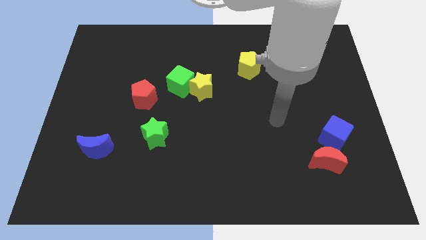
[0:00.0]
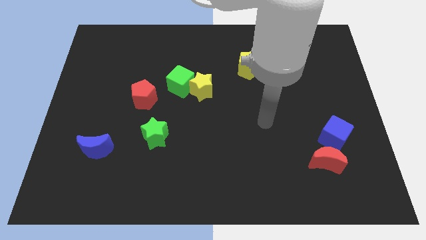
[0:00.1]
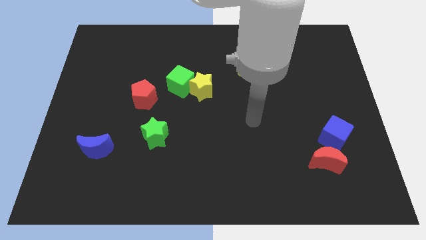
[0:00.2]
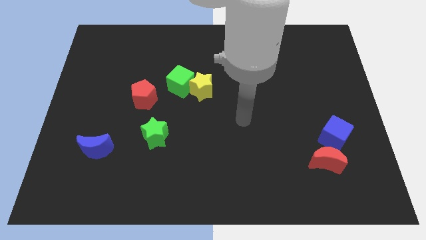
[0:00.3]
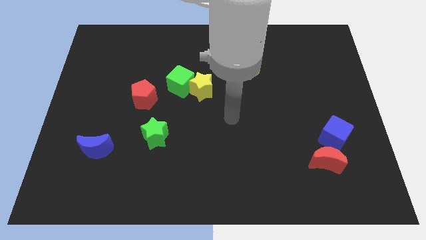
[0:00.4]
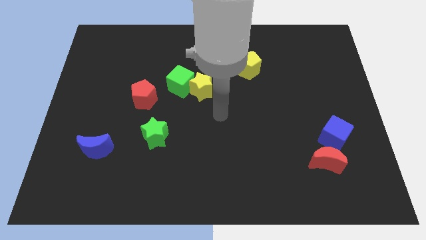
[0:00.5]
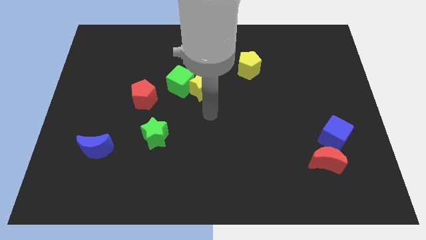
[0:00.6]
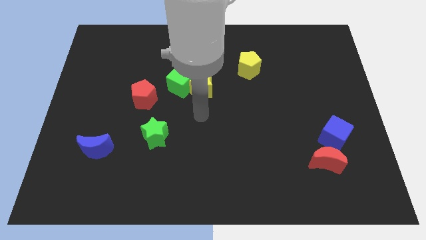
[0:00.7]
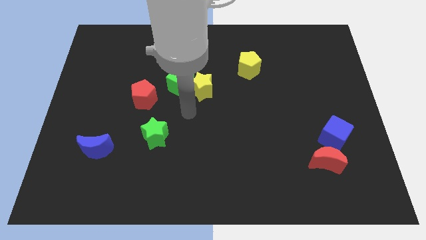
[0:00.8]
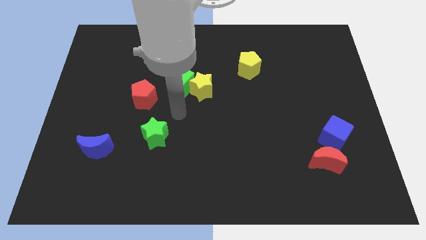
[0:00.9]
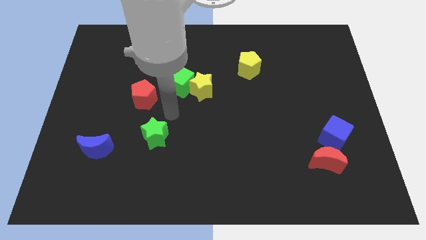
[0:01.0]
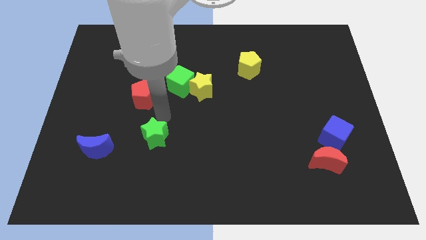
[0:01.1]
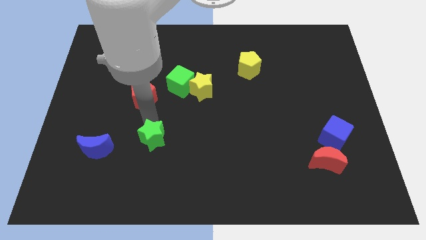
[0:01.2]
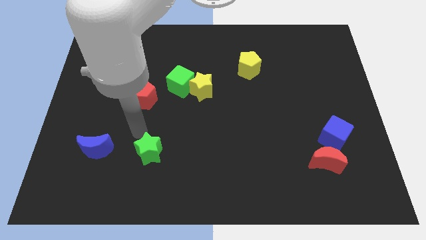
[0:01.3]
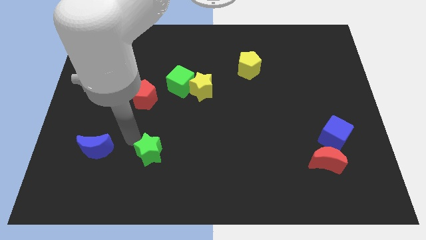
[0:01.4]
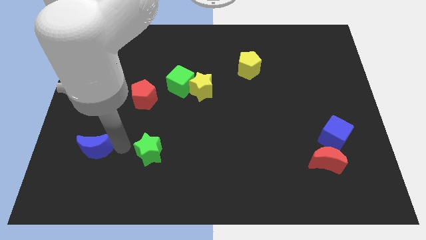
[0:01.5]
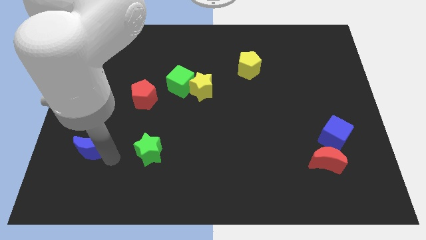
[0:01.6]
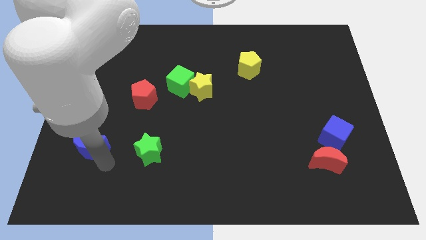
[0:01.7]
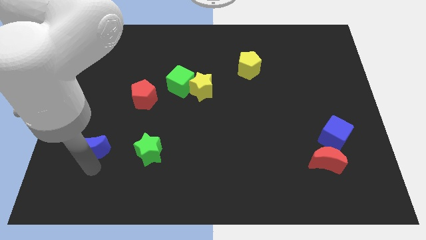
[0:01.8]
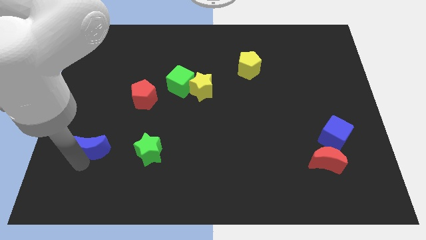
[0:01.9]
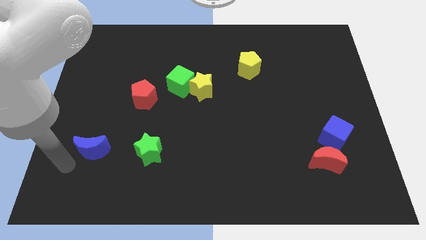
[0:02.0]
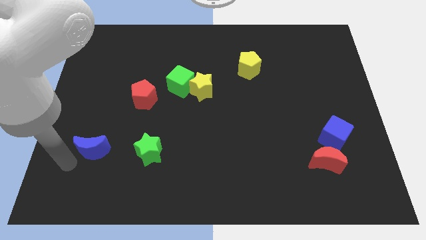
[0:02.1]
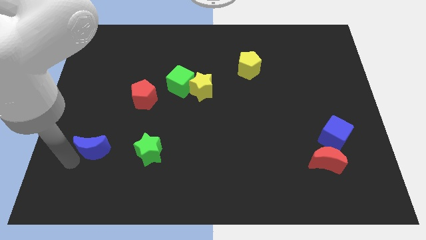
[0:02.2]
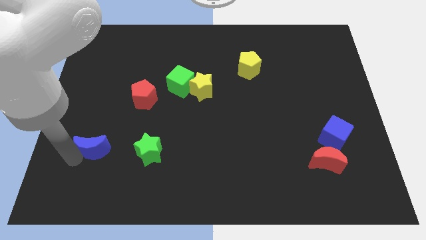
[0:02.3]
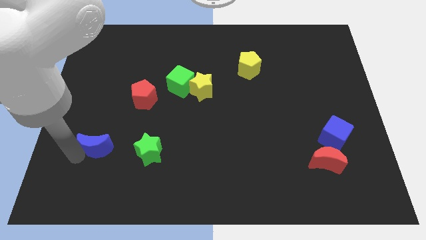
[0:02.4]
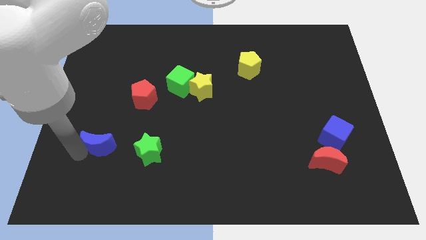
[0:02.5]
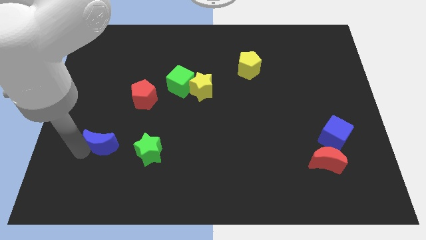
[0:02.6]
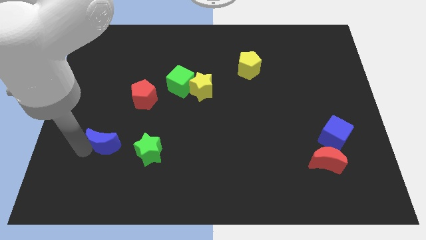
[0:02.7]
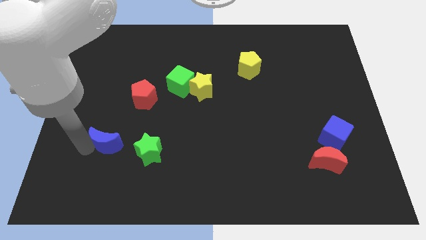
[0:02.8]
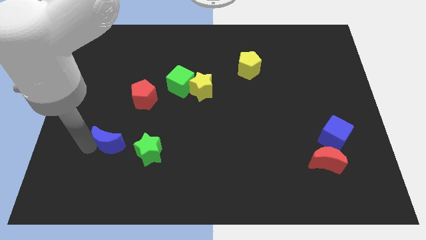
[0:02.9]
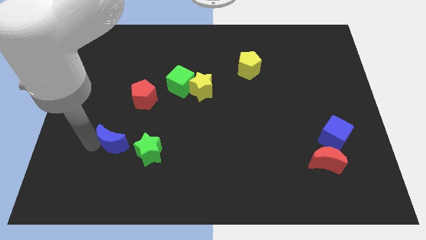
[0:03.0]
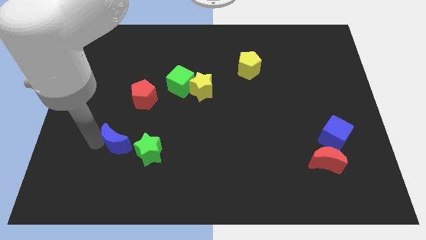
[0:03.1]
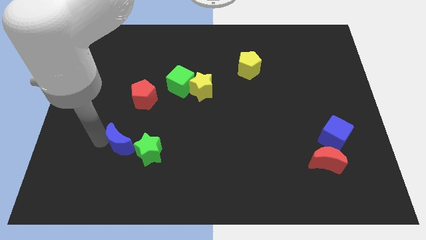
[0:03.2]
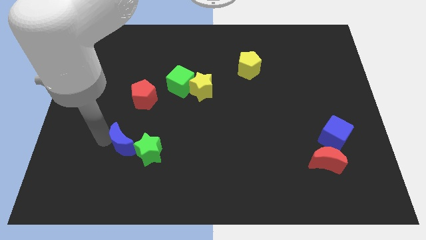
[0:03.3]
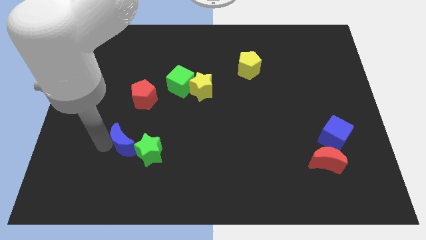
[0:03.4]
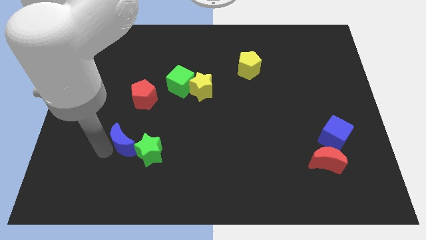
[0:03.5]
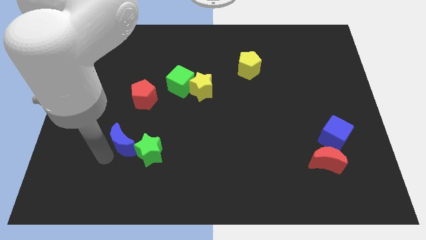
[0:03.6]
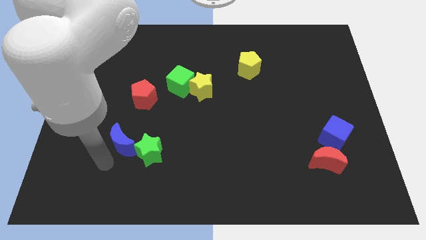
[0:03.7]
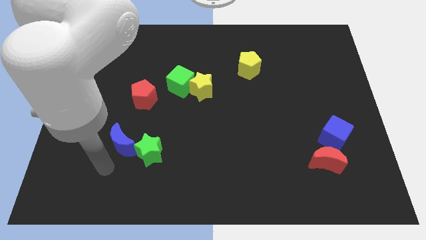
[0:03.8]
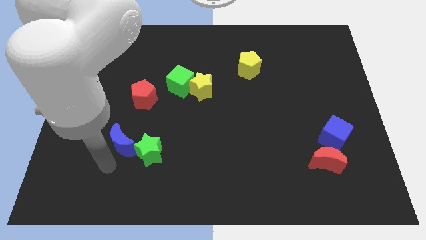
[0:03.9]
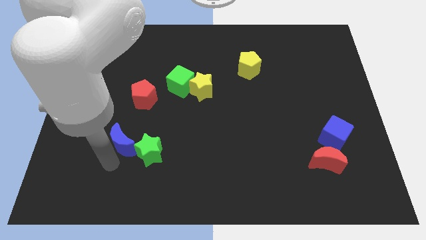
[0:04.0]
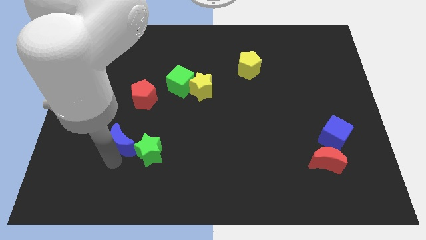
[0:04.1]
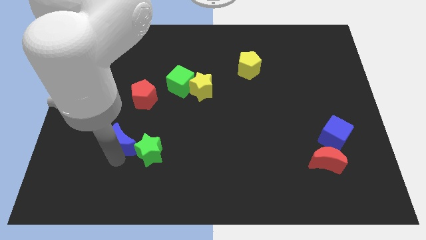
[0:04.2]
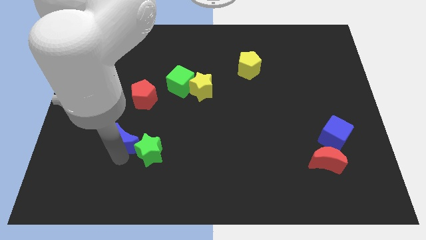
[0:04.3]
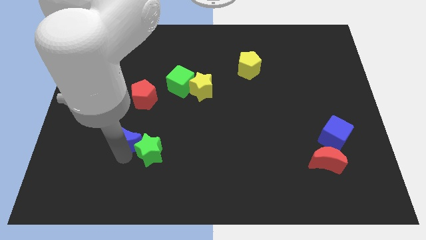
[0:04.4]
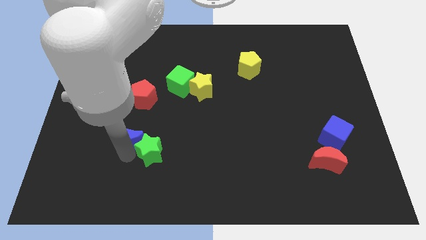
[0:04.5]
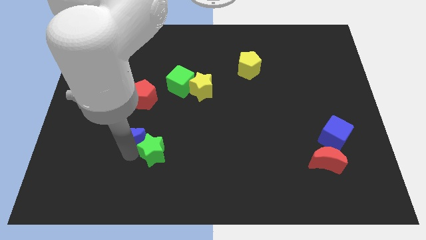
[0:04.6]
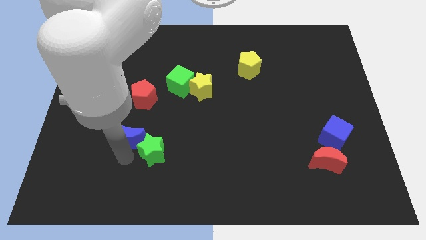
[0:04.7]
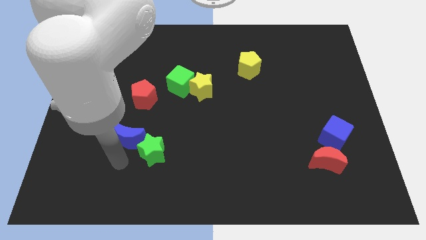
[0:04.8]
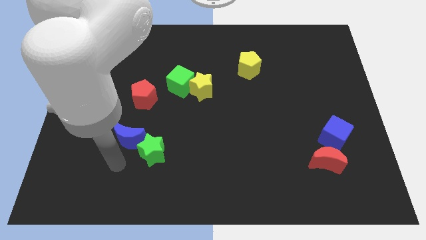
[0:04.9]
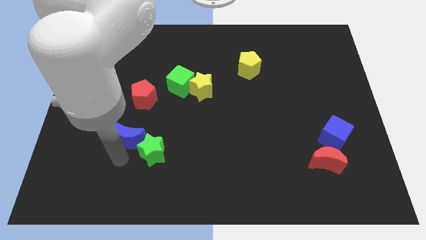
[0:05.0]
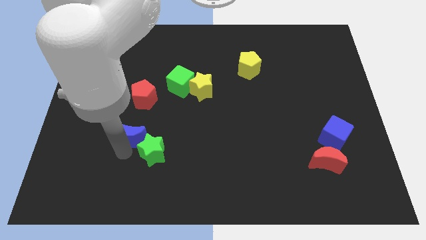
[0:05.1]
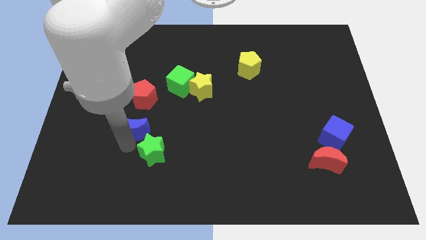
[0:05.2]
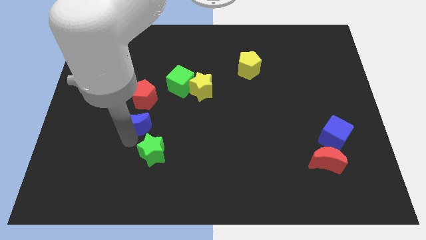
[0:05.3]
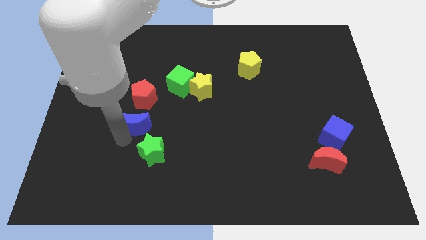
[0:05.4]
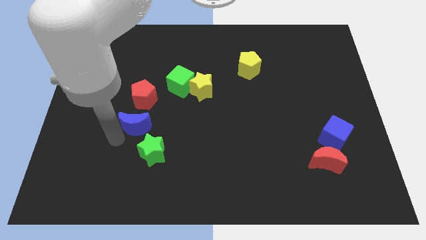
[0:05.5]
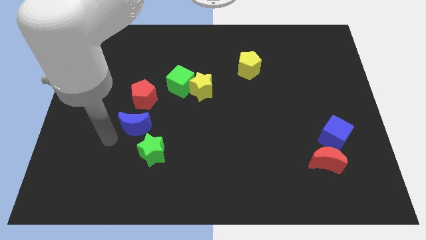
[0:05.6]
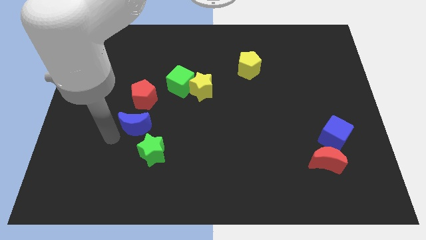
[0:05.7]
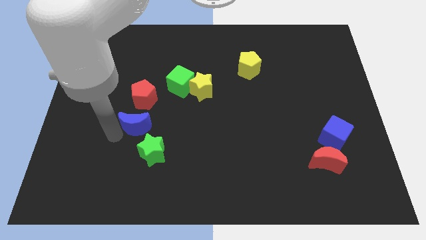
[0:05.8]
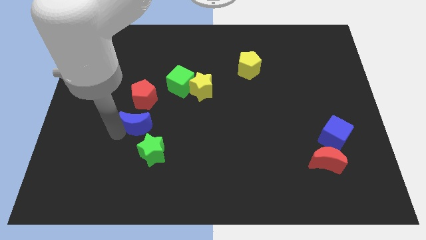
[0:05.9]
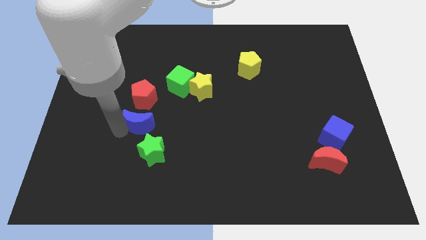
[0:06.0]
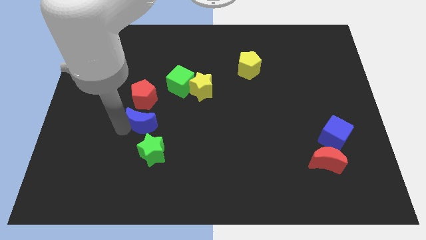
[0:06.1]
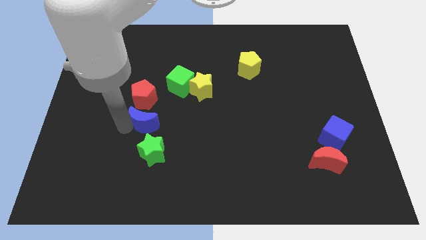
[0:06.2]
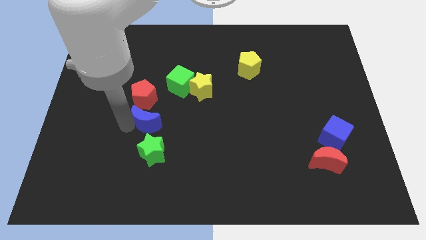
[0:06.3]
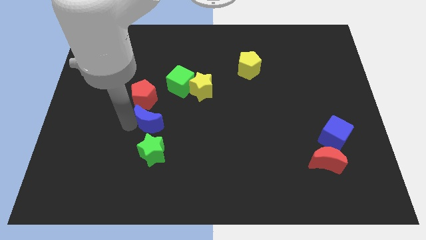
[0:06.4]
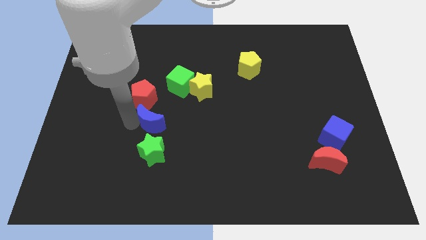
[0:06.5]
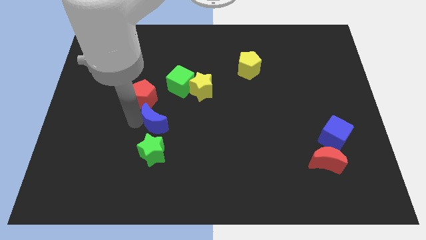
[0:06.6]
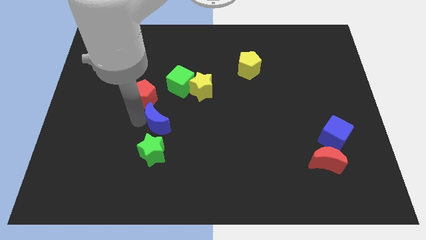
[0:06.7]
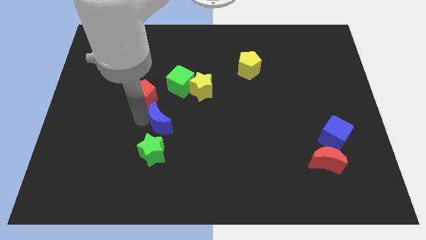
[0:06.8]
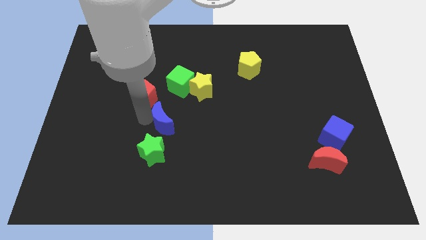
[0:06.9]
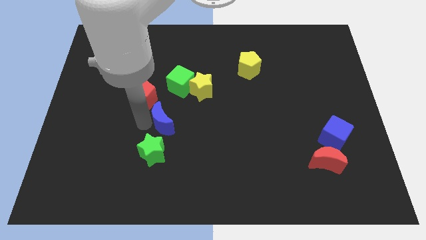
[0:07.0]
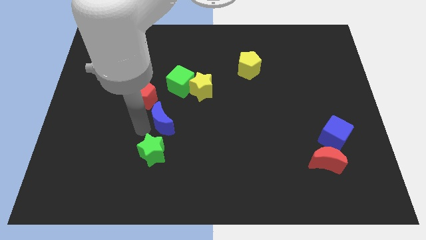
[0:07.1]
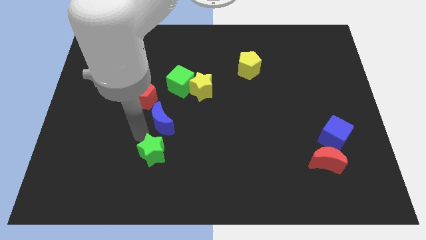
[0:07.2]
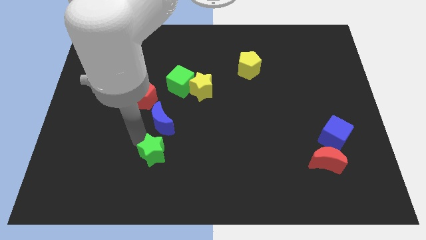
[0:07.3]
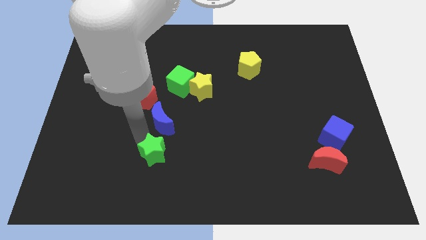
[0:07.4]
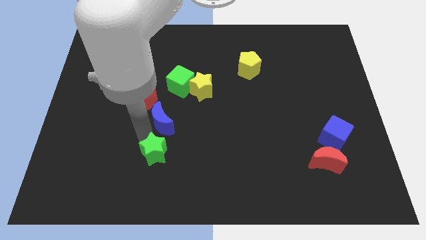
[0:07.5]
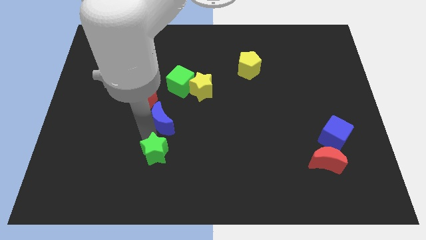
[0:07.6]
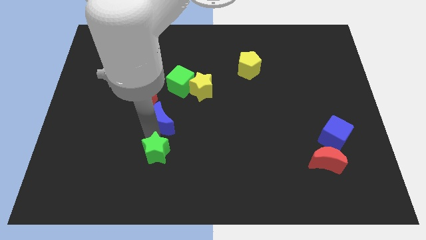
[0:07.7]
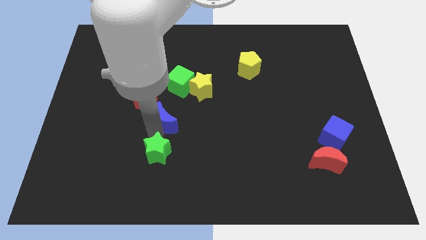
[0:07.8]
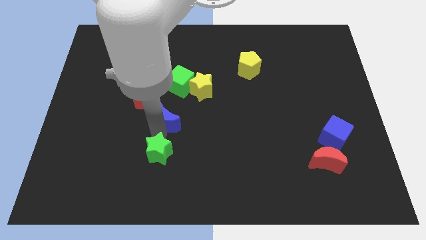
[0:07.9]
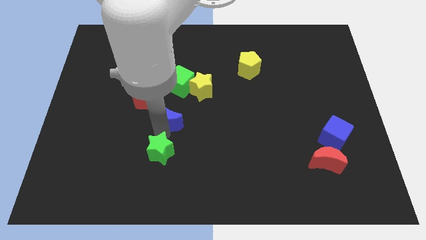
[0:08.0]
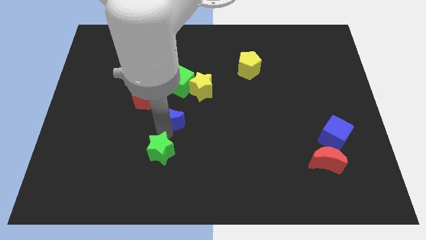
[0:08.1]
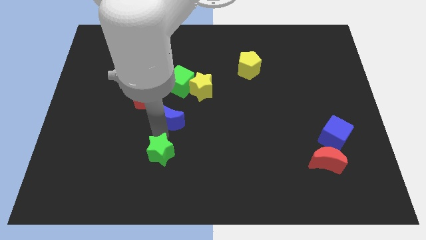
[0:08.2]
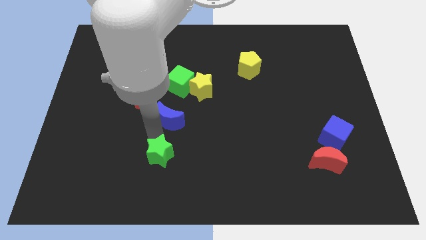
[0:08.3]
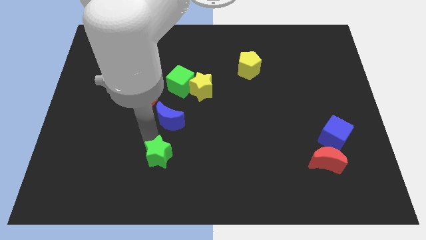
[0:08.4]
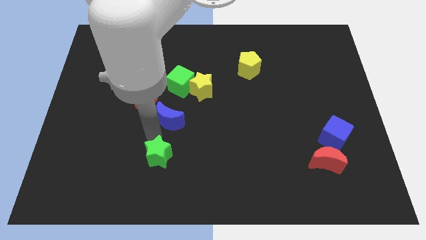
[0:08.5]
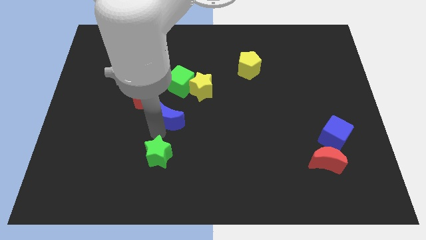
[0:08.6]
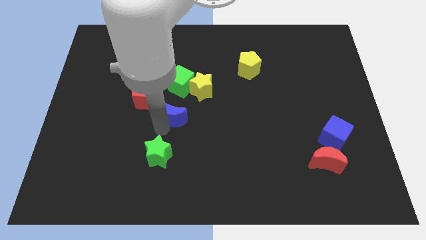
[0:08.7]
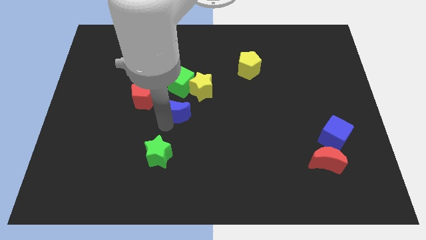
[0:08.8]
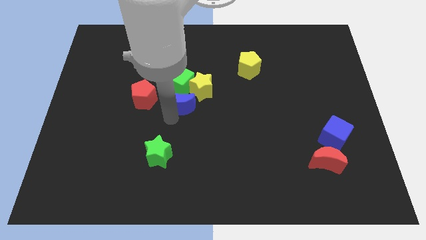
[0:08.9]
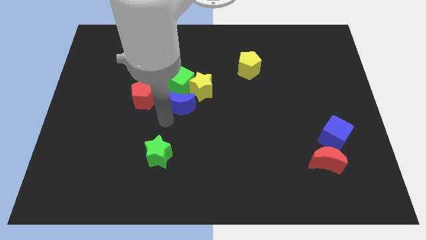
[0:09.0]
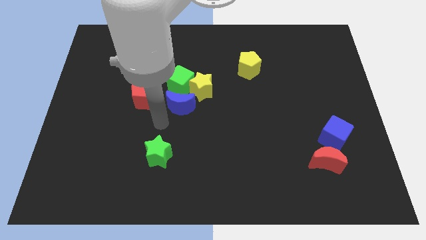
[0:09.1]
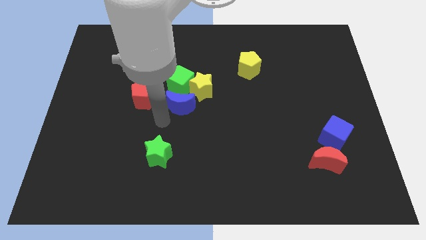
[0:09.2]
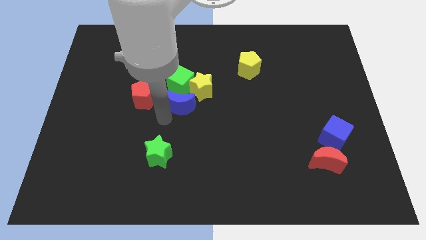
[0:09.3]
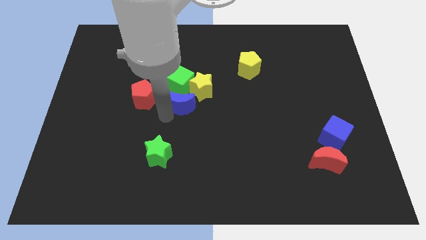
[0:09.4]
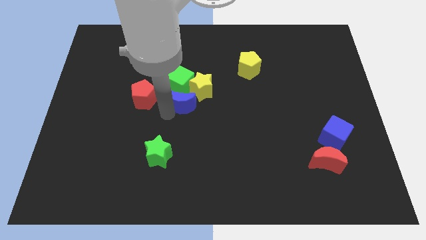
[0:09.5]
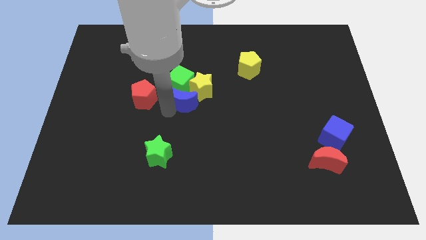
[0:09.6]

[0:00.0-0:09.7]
slide the blue moon towards the yellow star
